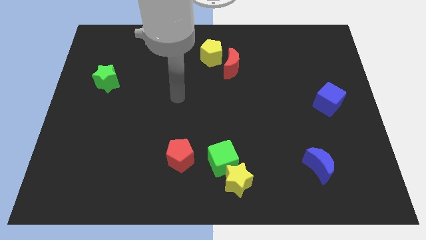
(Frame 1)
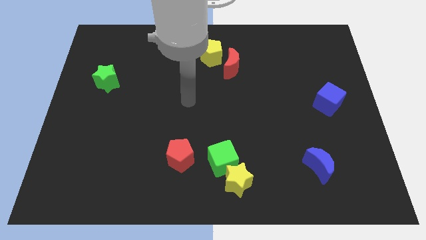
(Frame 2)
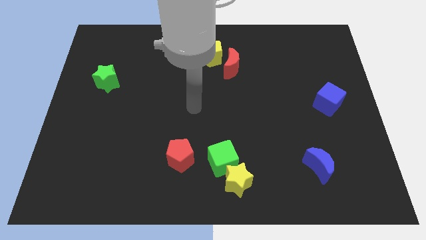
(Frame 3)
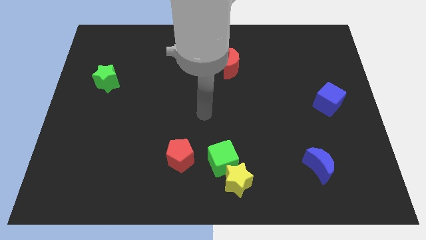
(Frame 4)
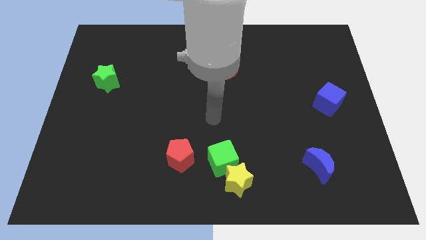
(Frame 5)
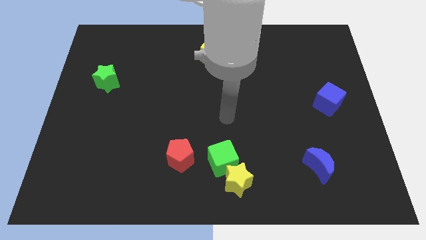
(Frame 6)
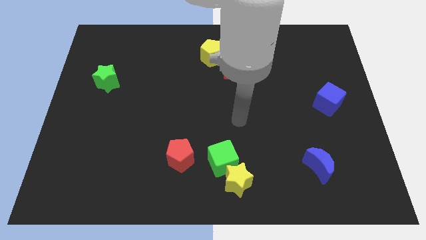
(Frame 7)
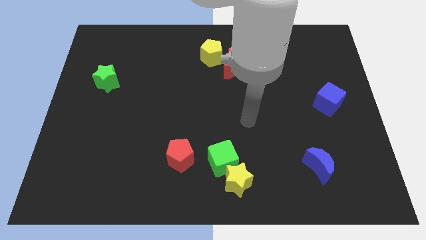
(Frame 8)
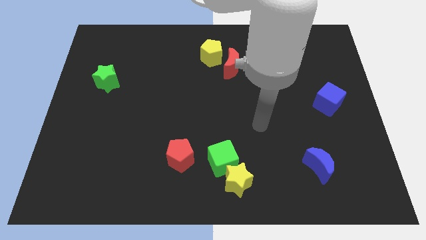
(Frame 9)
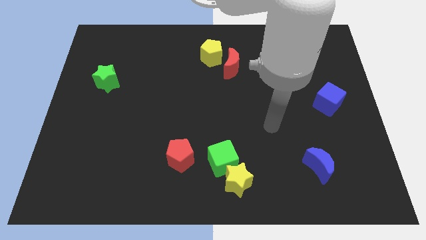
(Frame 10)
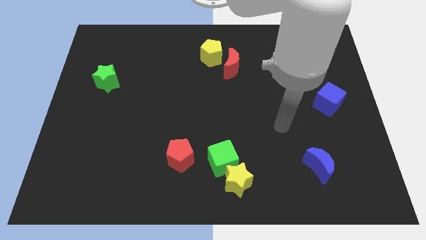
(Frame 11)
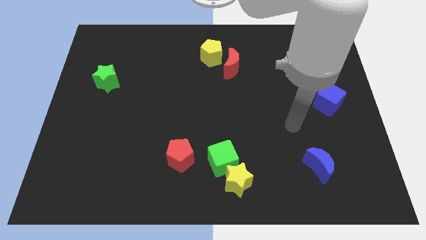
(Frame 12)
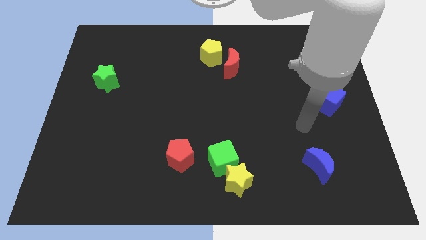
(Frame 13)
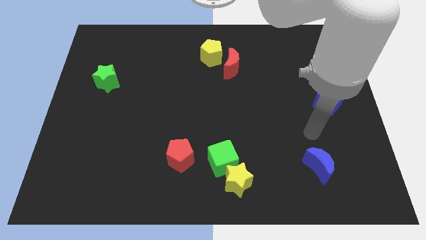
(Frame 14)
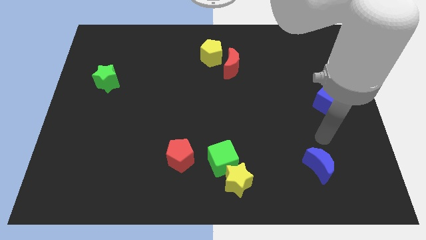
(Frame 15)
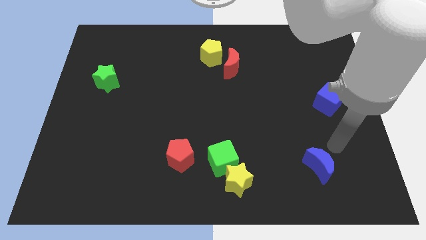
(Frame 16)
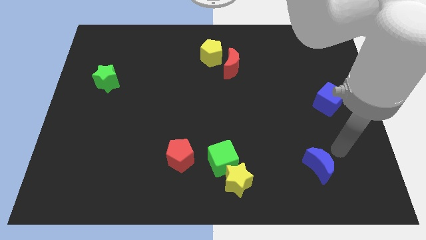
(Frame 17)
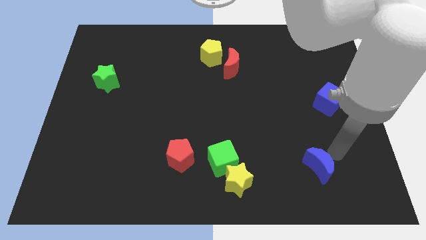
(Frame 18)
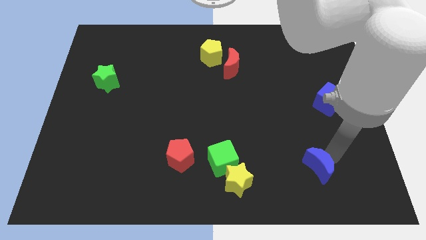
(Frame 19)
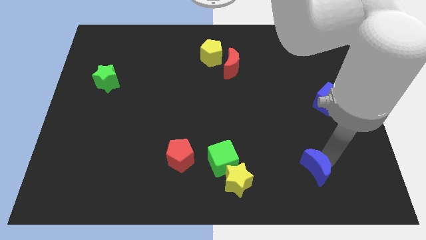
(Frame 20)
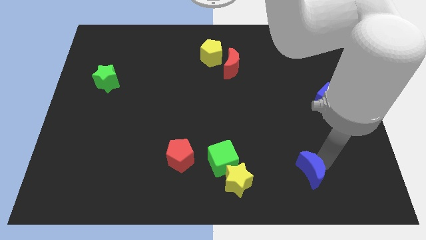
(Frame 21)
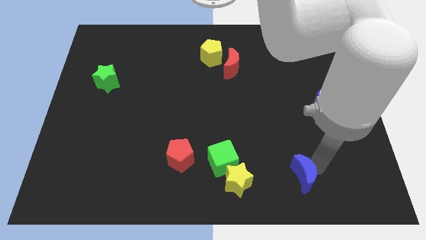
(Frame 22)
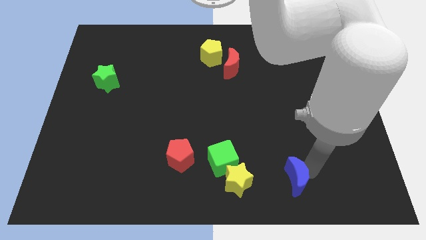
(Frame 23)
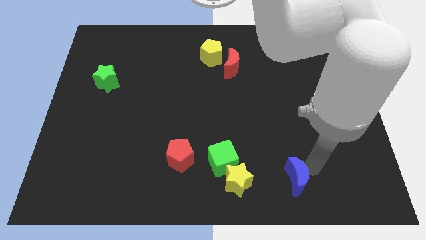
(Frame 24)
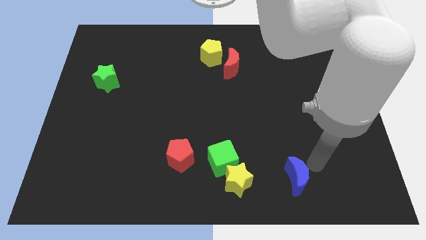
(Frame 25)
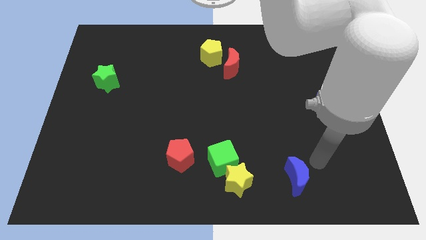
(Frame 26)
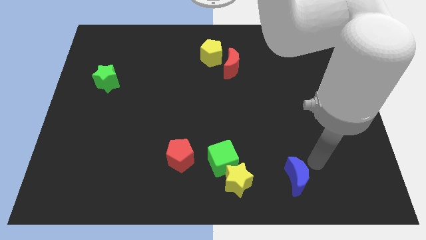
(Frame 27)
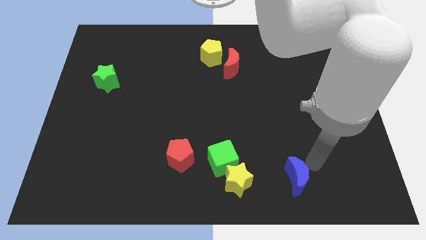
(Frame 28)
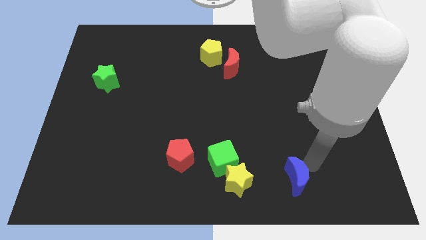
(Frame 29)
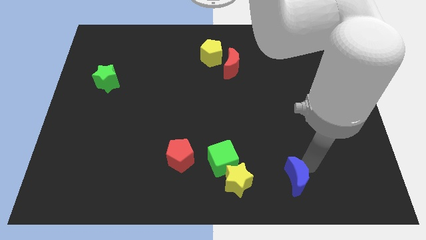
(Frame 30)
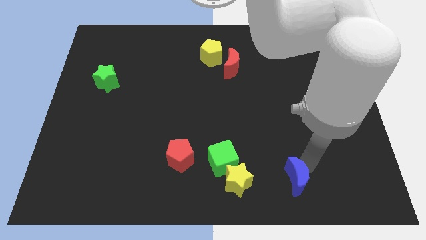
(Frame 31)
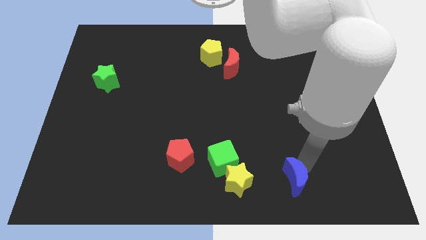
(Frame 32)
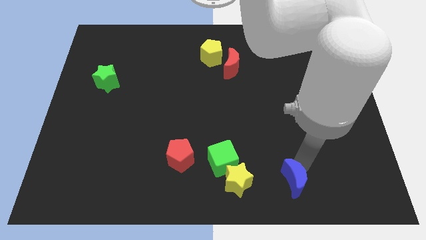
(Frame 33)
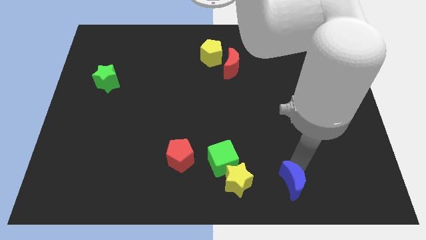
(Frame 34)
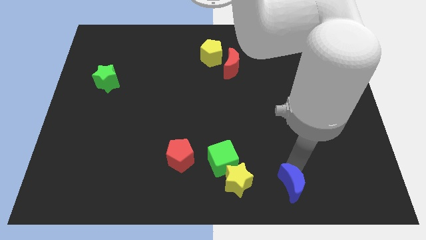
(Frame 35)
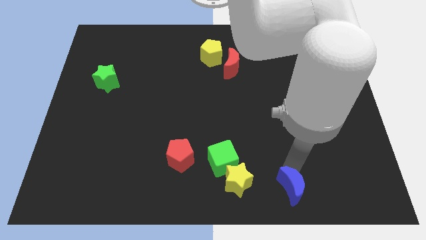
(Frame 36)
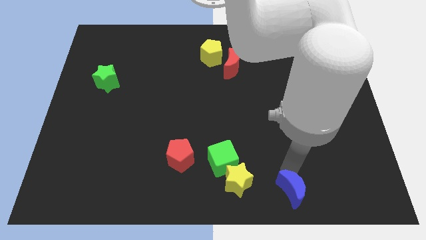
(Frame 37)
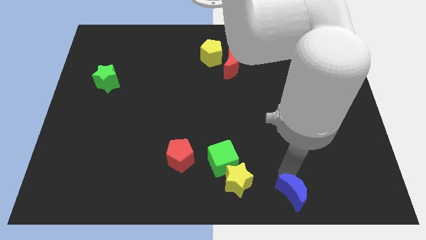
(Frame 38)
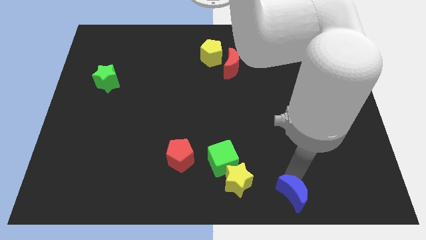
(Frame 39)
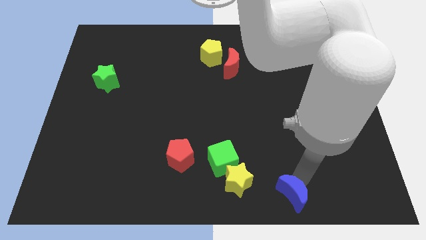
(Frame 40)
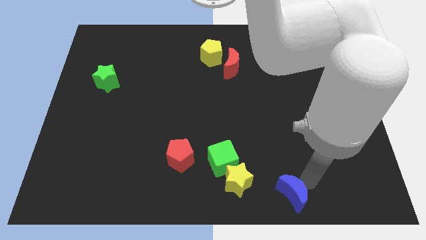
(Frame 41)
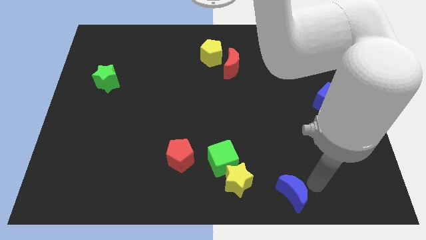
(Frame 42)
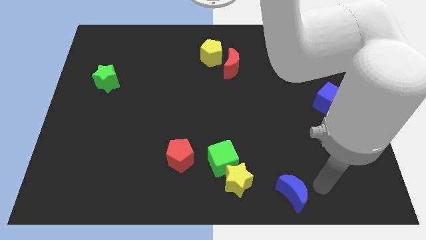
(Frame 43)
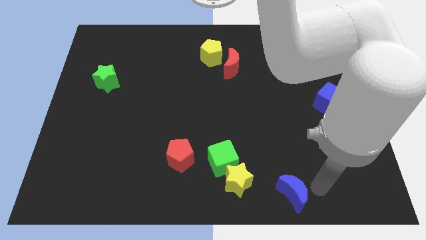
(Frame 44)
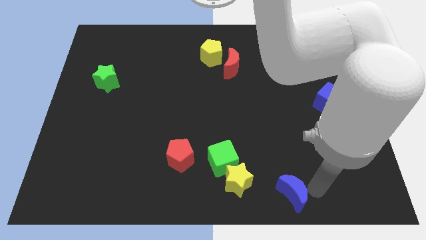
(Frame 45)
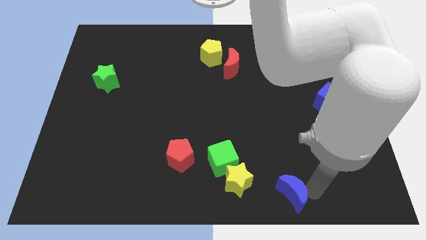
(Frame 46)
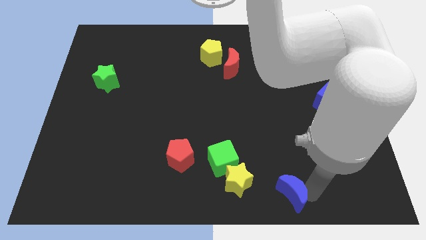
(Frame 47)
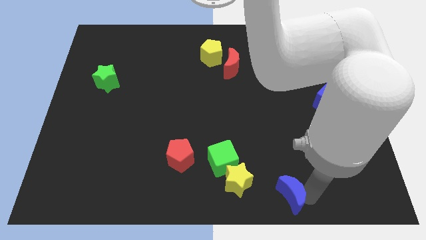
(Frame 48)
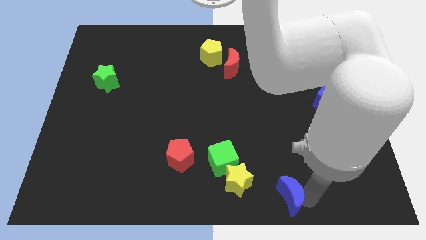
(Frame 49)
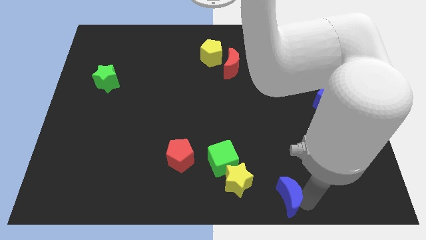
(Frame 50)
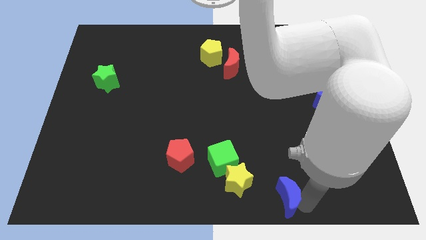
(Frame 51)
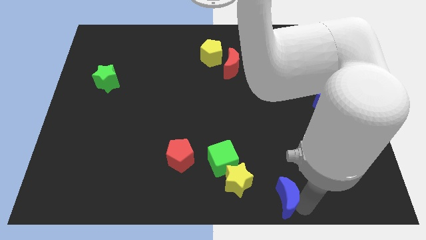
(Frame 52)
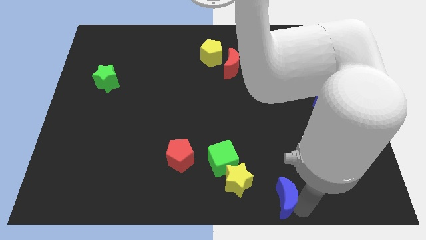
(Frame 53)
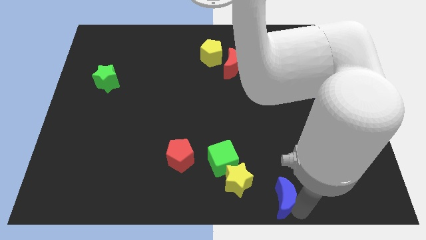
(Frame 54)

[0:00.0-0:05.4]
push the blue moon to the bottom side

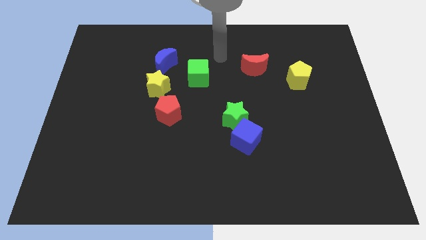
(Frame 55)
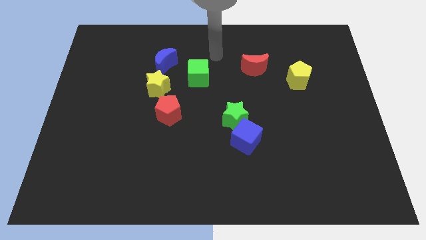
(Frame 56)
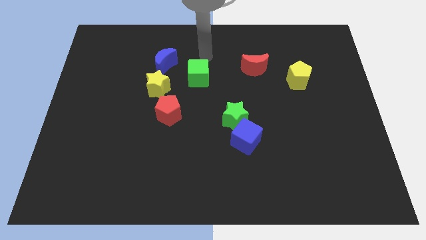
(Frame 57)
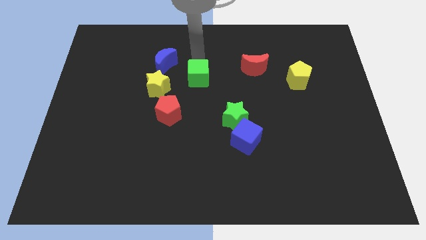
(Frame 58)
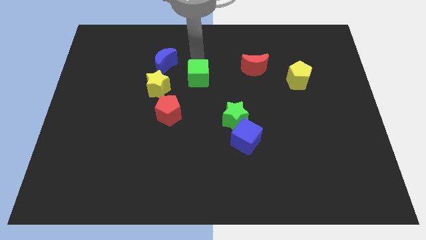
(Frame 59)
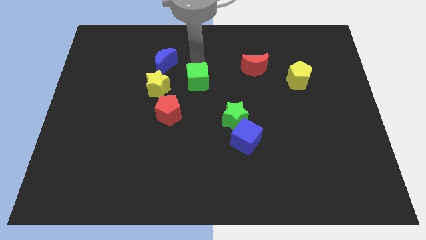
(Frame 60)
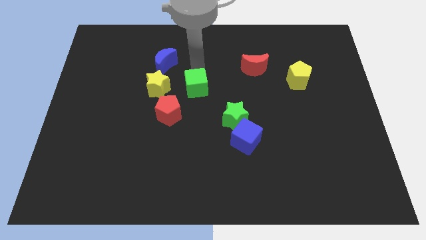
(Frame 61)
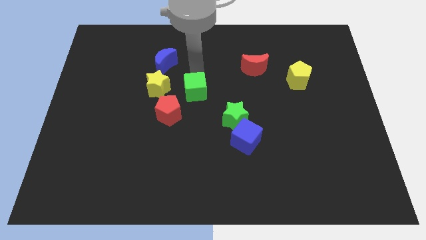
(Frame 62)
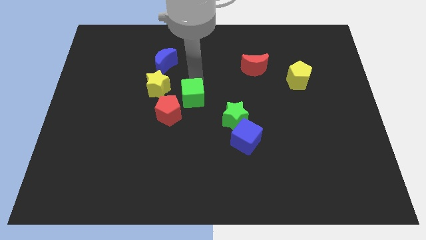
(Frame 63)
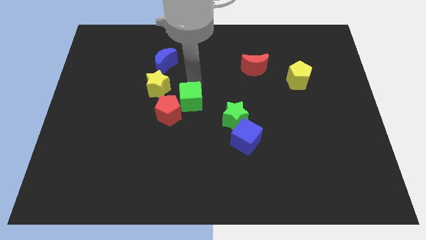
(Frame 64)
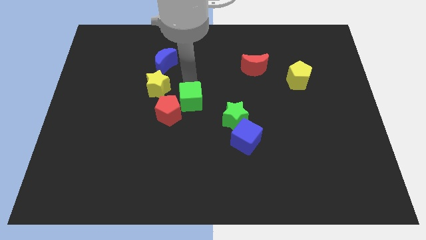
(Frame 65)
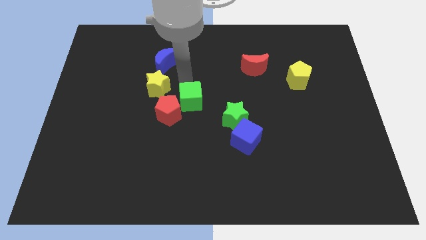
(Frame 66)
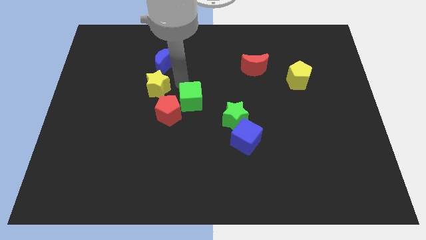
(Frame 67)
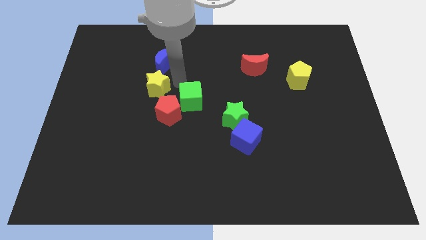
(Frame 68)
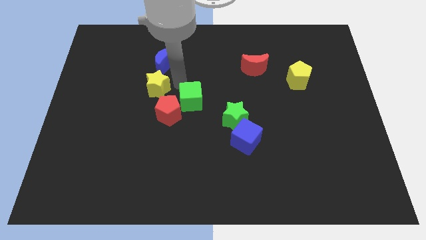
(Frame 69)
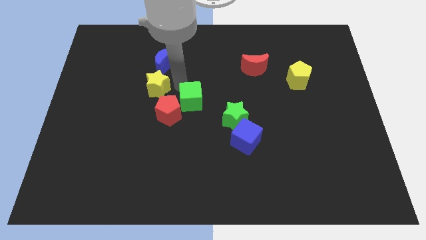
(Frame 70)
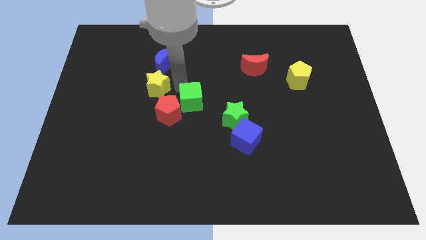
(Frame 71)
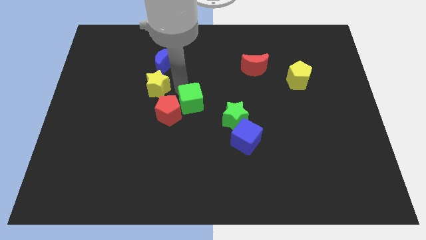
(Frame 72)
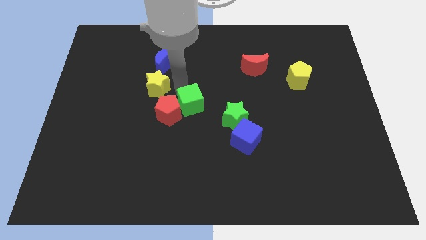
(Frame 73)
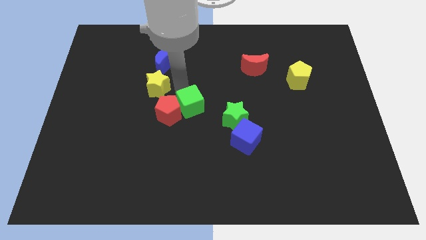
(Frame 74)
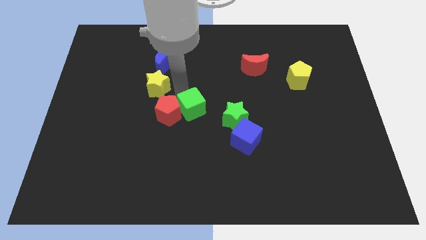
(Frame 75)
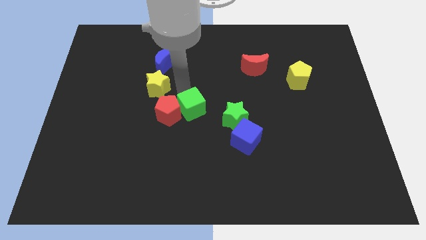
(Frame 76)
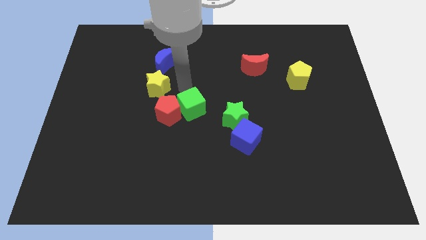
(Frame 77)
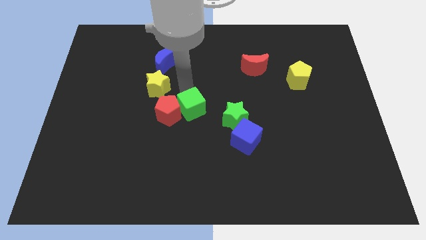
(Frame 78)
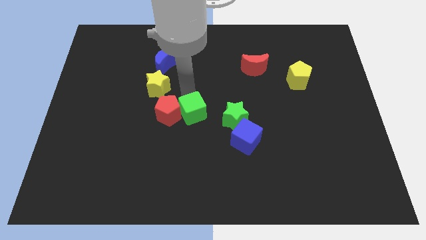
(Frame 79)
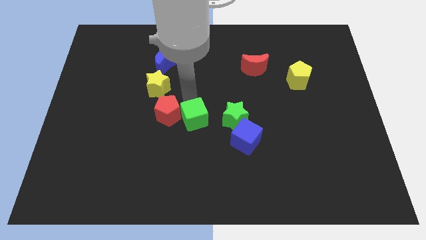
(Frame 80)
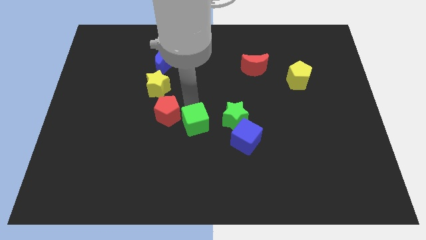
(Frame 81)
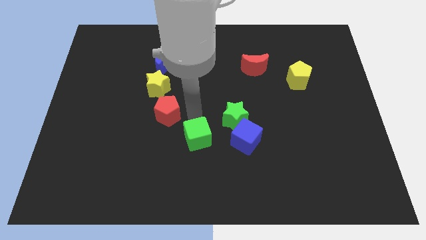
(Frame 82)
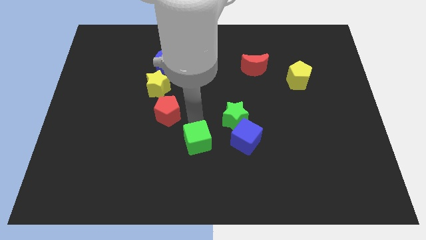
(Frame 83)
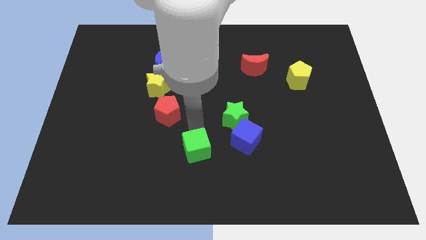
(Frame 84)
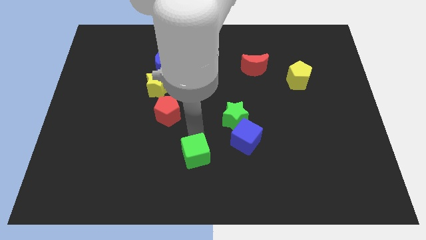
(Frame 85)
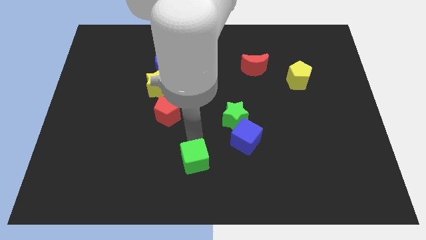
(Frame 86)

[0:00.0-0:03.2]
put the green cube to the bottom side
